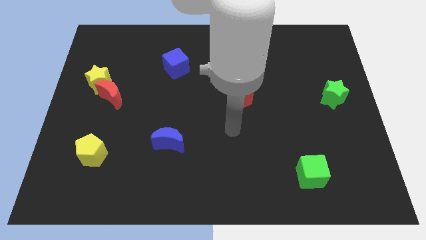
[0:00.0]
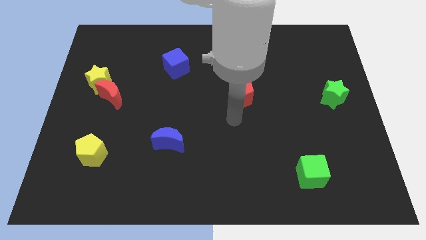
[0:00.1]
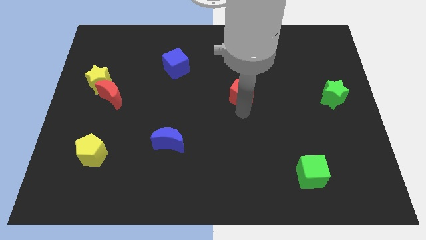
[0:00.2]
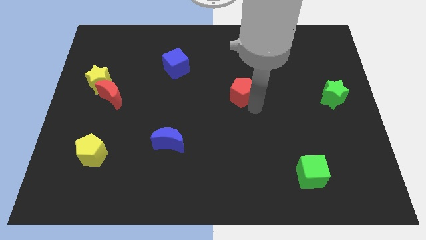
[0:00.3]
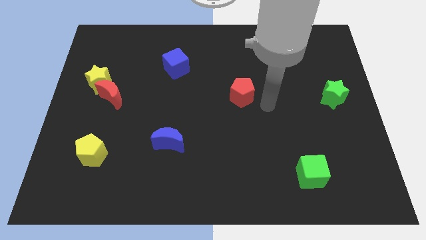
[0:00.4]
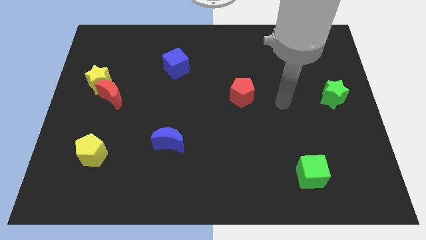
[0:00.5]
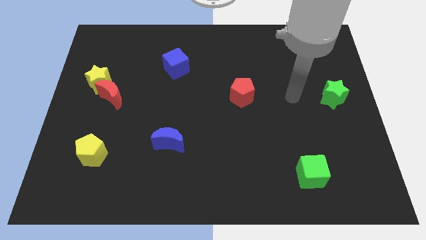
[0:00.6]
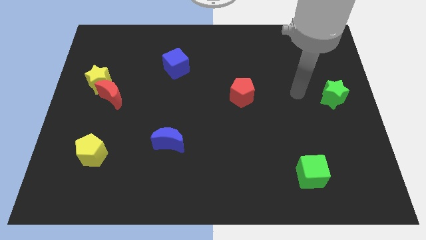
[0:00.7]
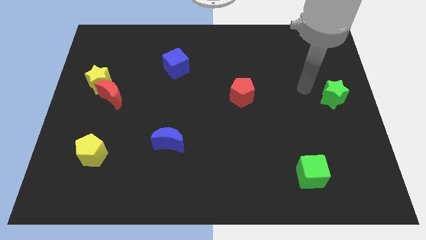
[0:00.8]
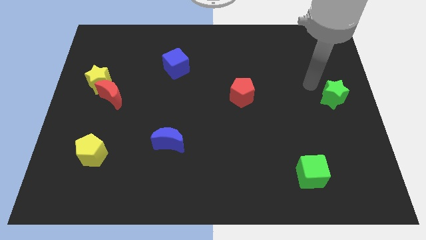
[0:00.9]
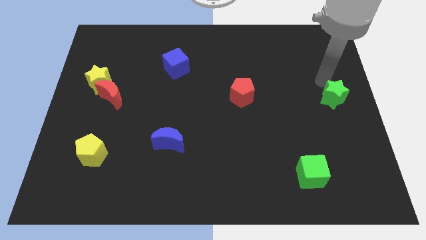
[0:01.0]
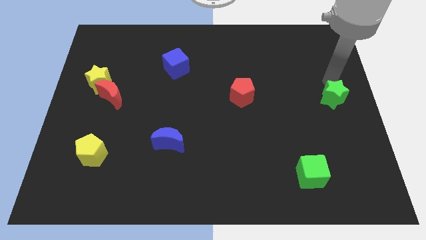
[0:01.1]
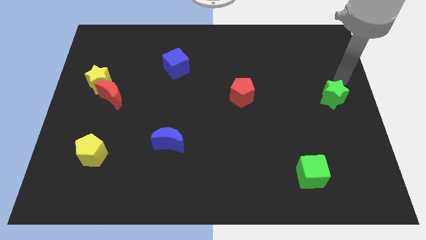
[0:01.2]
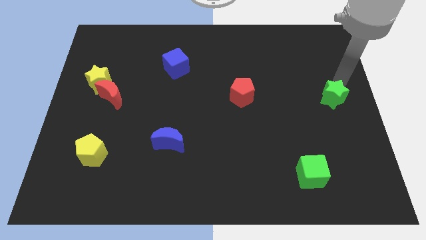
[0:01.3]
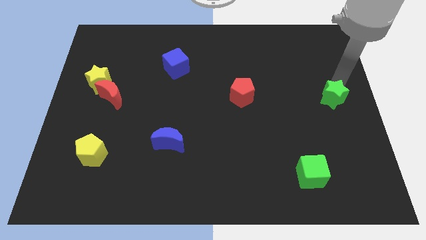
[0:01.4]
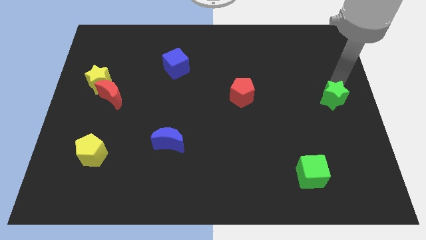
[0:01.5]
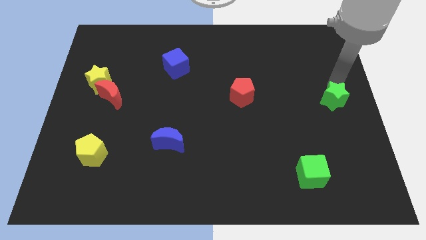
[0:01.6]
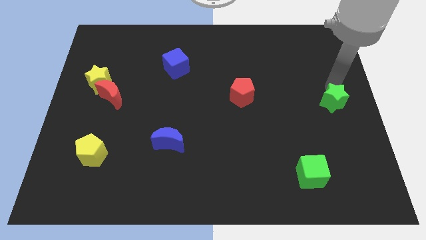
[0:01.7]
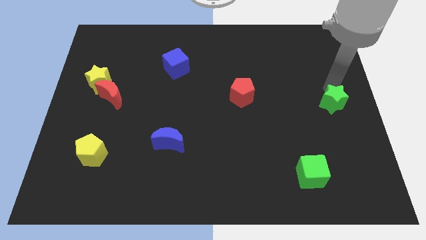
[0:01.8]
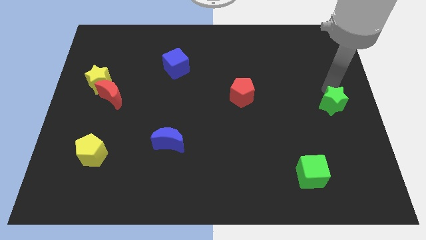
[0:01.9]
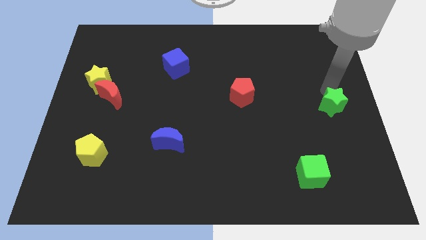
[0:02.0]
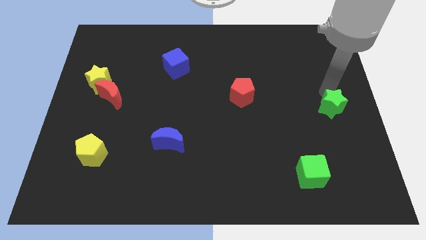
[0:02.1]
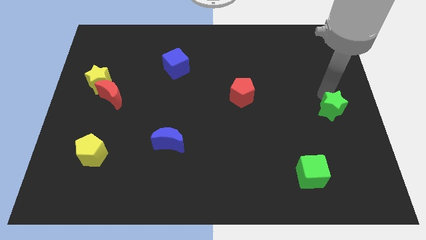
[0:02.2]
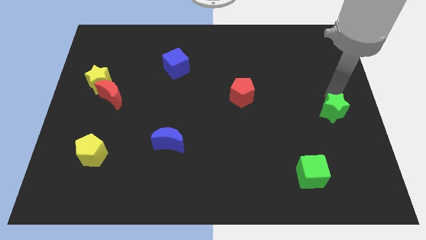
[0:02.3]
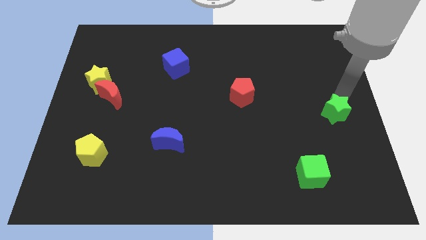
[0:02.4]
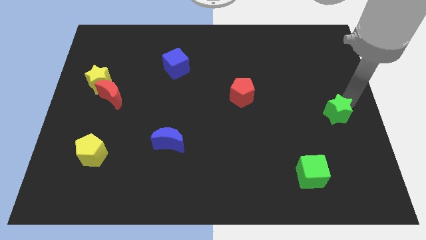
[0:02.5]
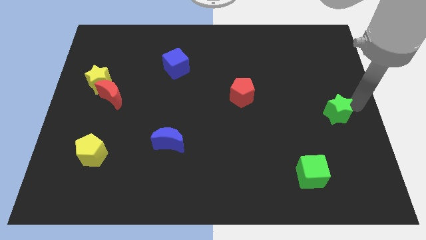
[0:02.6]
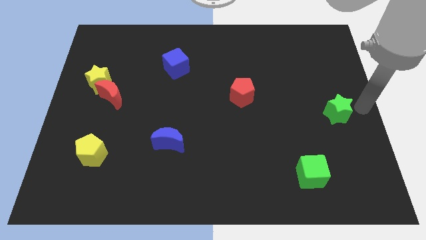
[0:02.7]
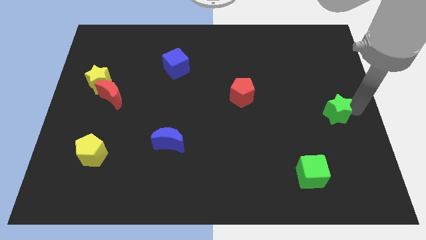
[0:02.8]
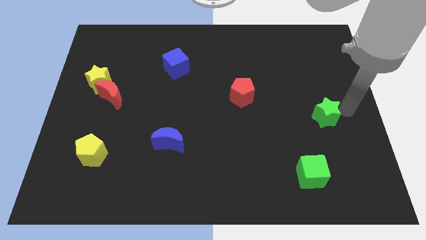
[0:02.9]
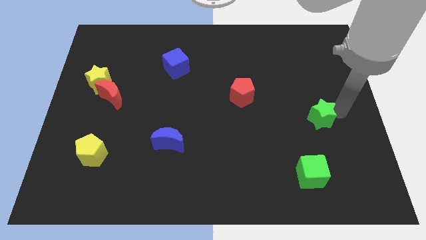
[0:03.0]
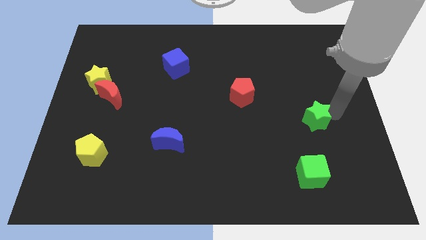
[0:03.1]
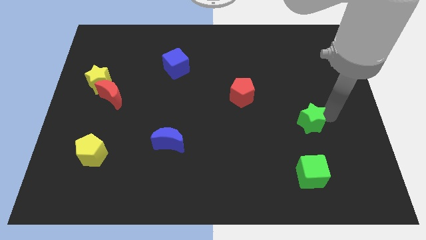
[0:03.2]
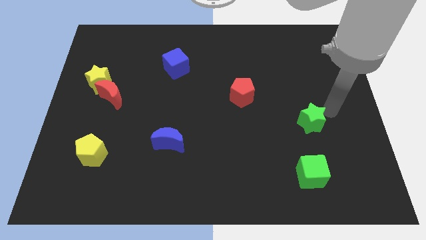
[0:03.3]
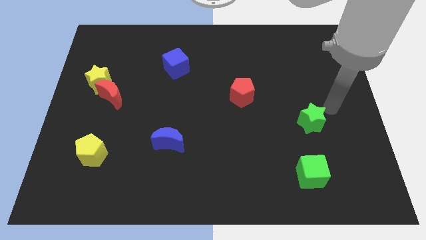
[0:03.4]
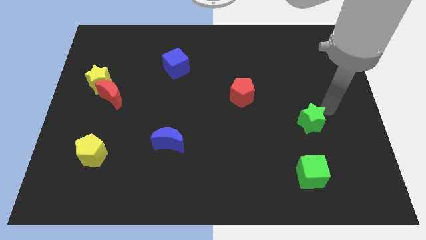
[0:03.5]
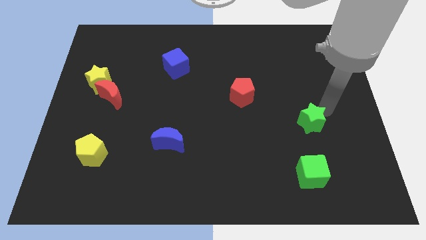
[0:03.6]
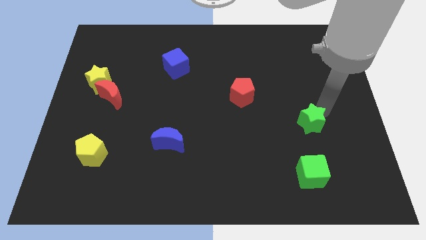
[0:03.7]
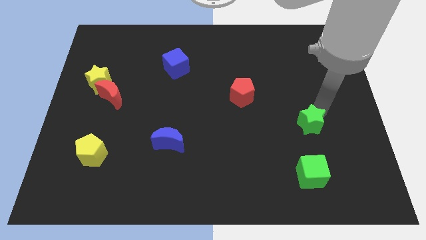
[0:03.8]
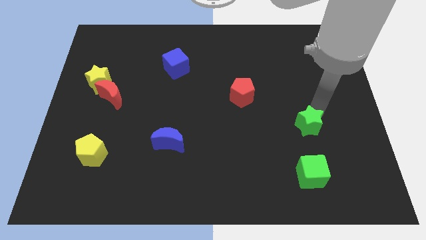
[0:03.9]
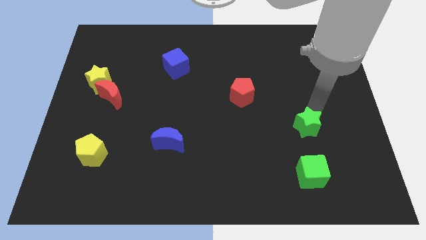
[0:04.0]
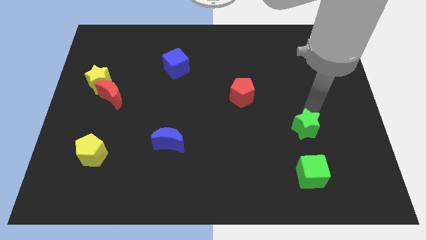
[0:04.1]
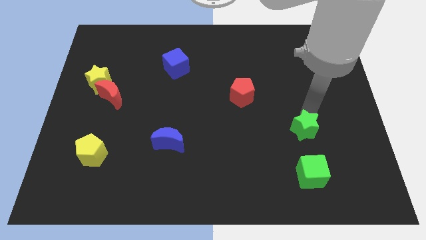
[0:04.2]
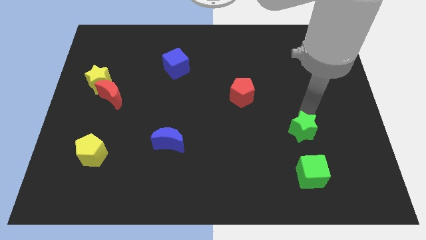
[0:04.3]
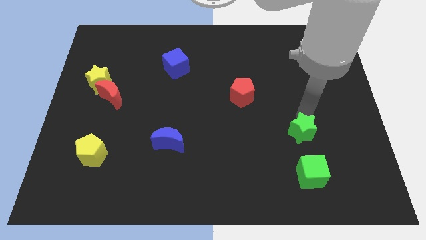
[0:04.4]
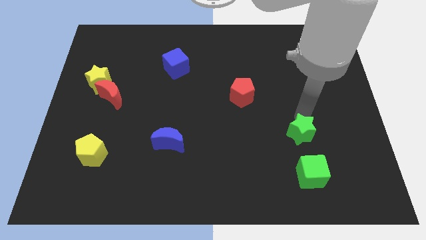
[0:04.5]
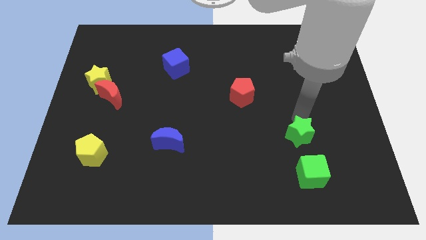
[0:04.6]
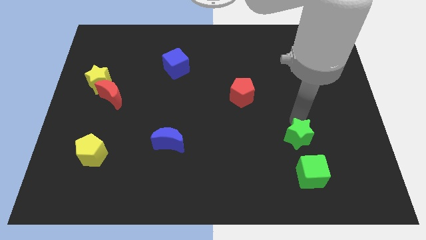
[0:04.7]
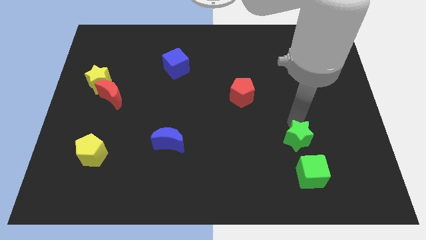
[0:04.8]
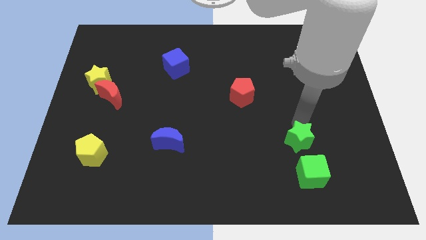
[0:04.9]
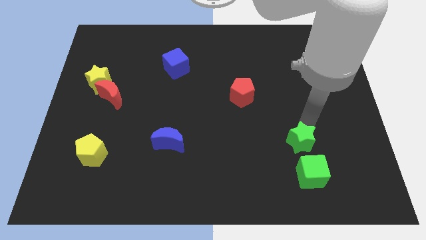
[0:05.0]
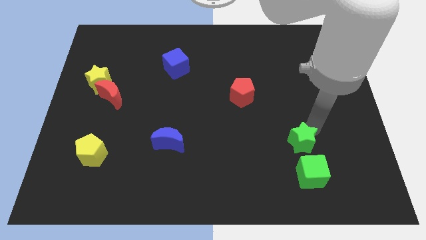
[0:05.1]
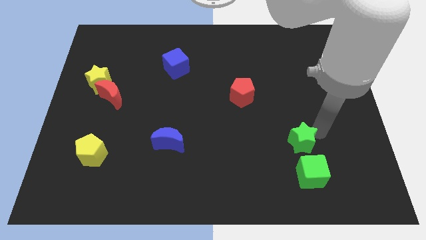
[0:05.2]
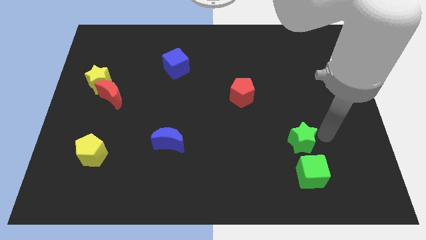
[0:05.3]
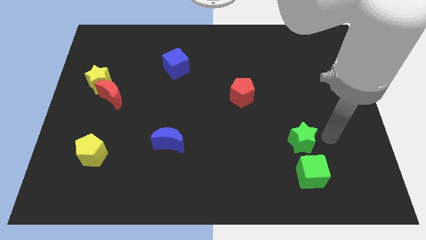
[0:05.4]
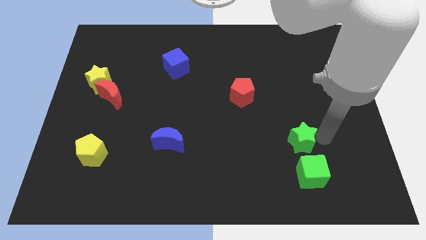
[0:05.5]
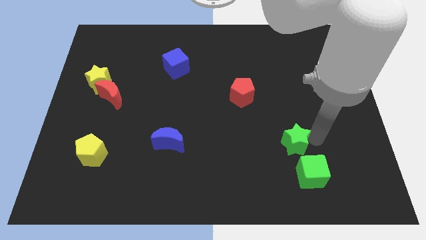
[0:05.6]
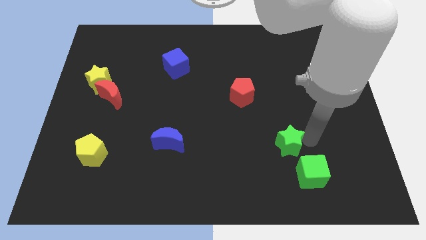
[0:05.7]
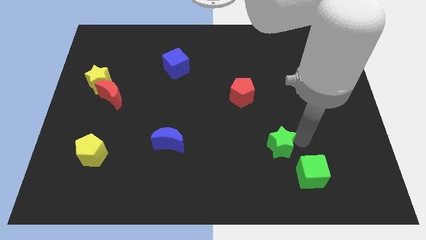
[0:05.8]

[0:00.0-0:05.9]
move the green star downwards and to the left diagonally

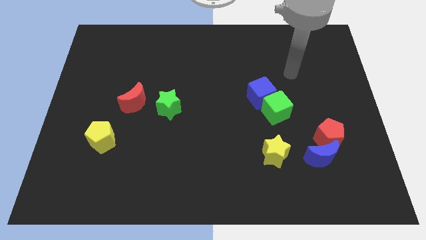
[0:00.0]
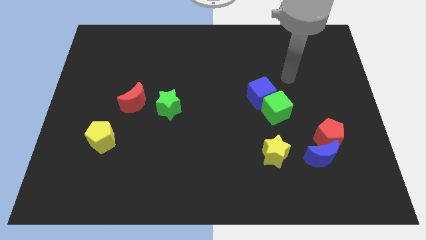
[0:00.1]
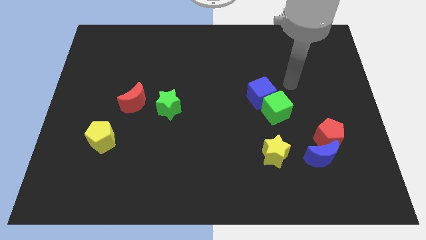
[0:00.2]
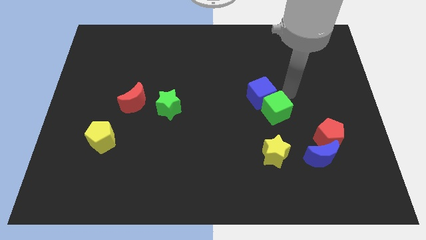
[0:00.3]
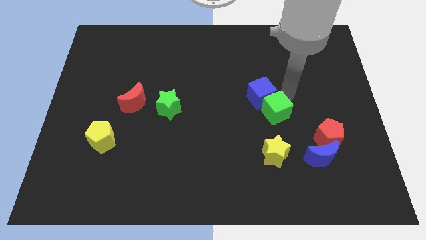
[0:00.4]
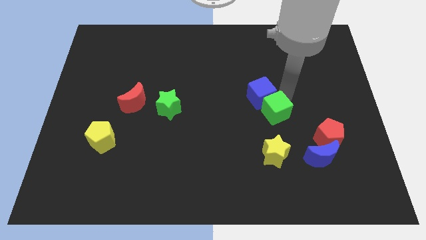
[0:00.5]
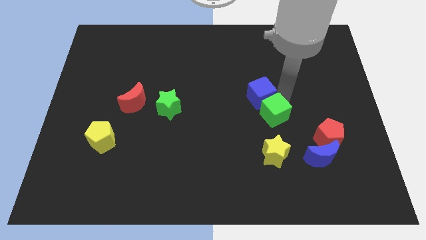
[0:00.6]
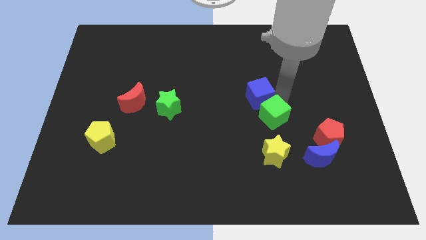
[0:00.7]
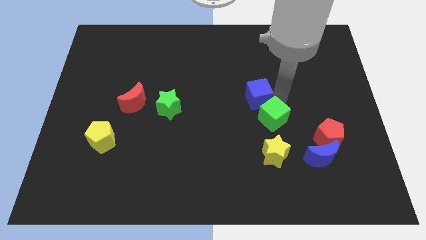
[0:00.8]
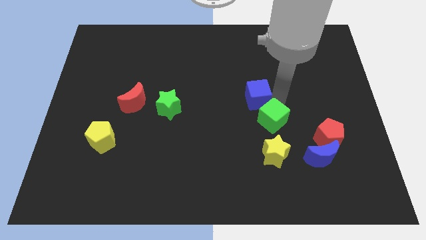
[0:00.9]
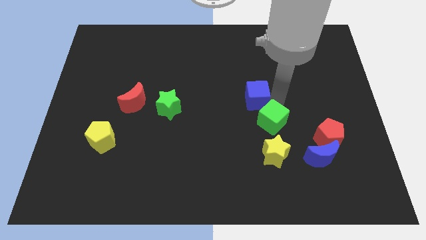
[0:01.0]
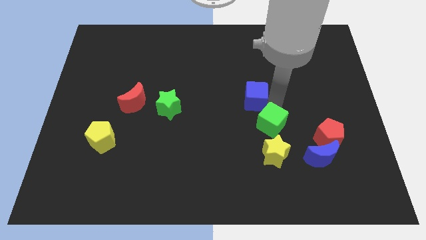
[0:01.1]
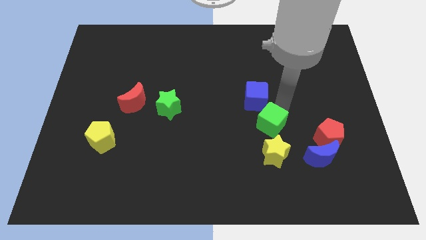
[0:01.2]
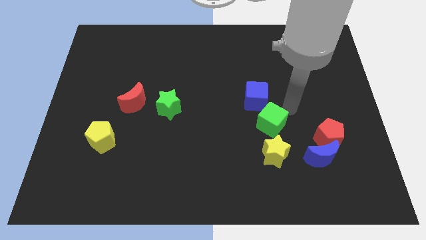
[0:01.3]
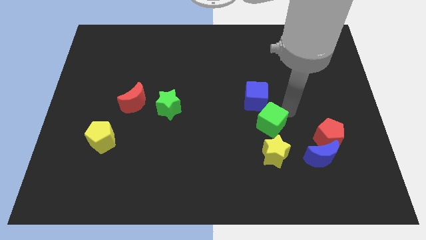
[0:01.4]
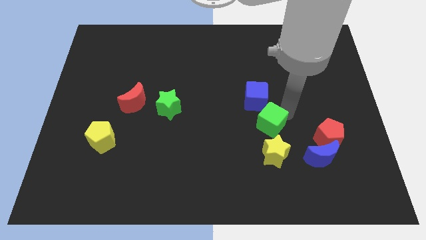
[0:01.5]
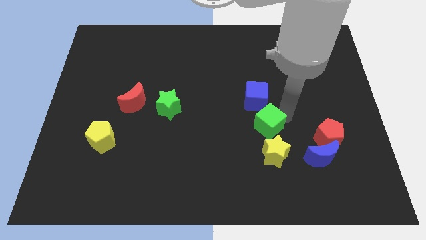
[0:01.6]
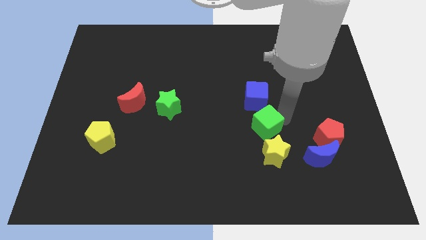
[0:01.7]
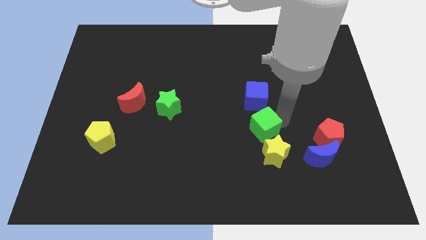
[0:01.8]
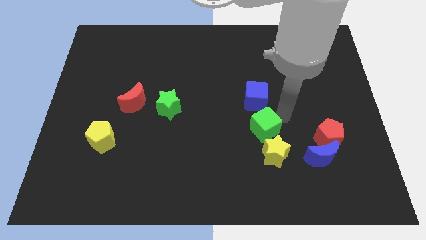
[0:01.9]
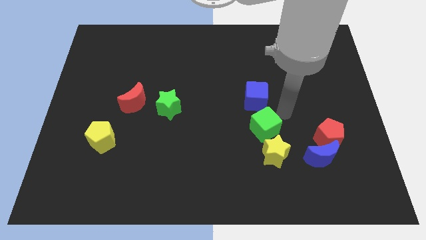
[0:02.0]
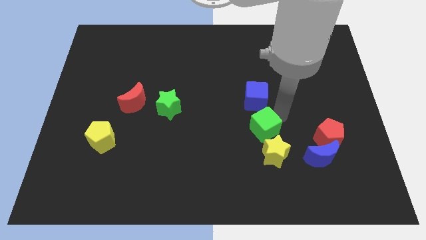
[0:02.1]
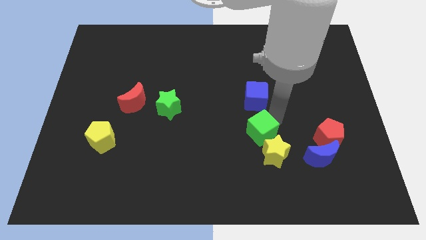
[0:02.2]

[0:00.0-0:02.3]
push the green cube a little bit downwards and then left
